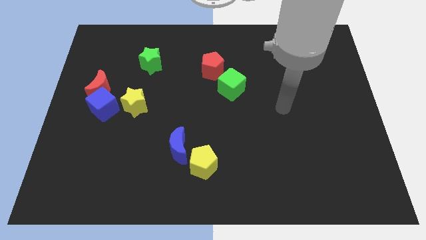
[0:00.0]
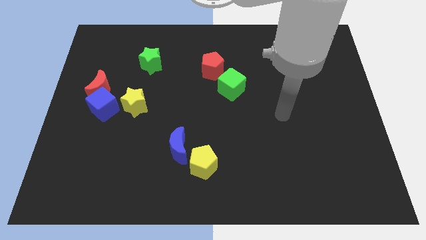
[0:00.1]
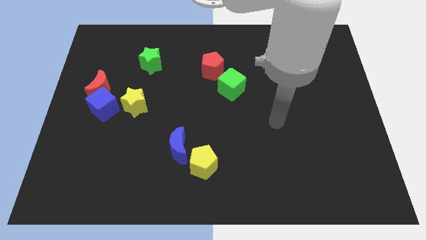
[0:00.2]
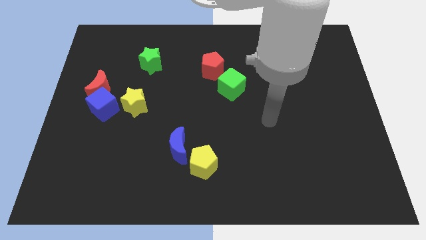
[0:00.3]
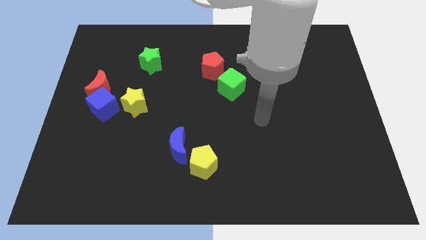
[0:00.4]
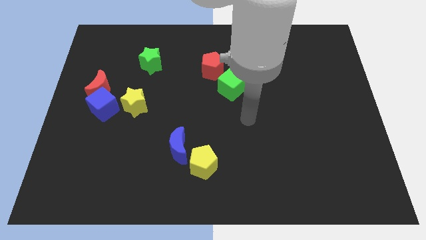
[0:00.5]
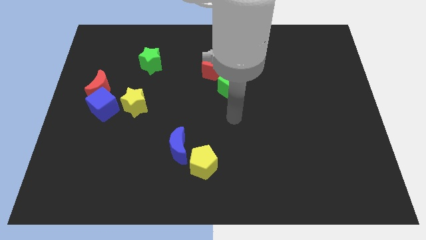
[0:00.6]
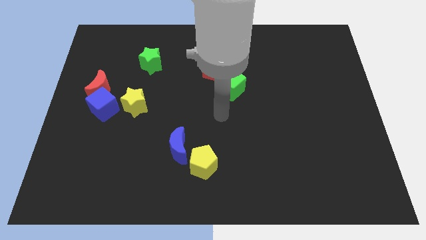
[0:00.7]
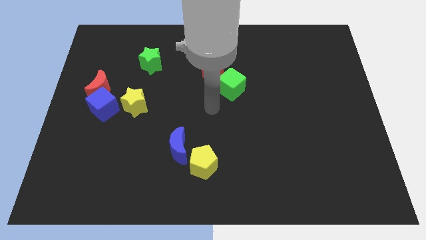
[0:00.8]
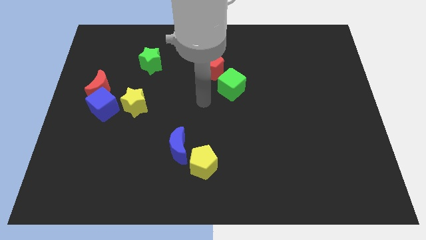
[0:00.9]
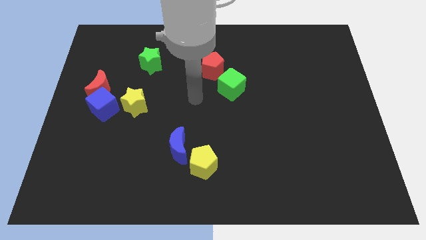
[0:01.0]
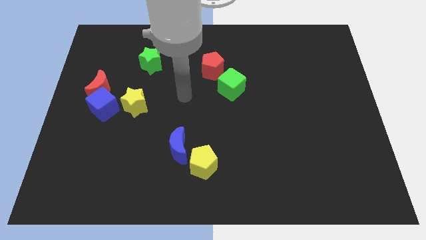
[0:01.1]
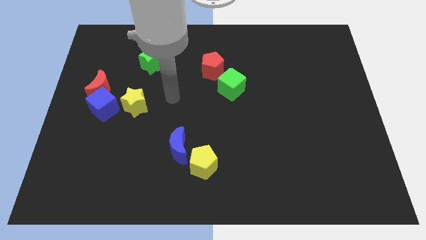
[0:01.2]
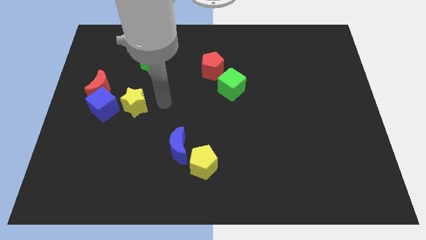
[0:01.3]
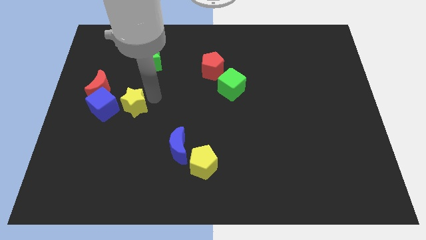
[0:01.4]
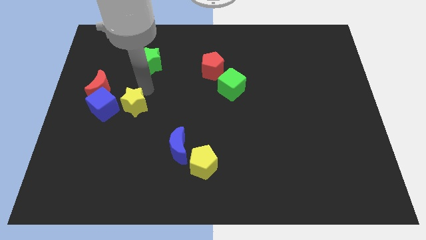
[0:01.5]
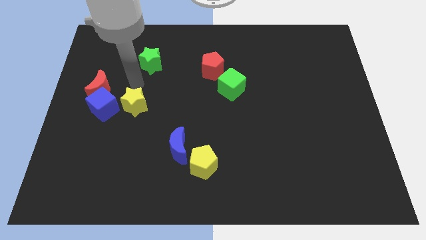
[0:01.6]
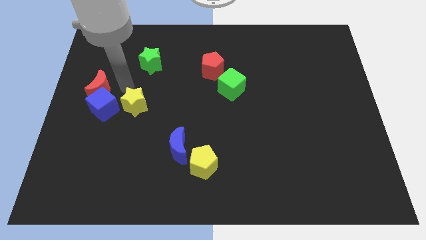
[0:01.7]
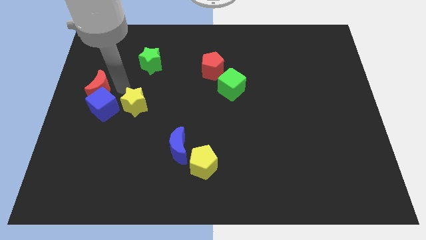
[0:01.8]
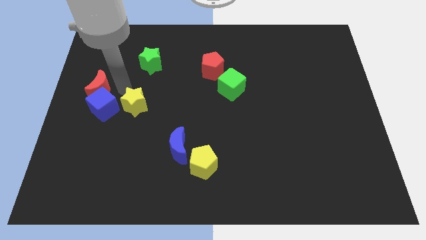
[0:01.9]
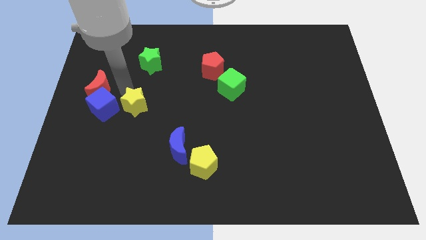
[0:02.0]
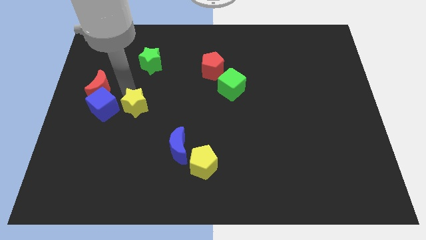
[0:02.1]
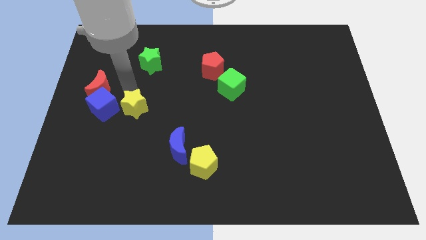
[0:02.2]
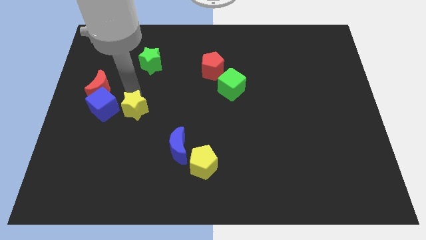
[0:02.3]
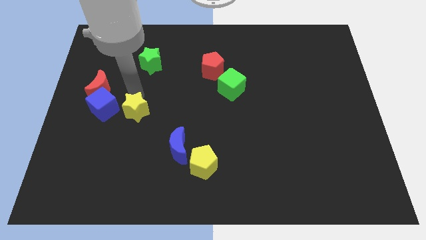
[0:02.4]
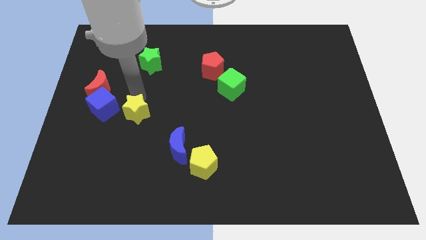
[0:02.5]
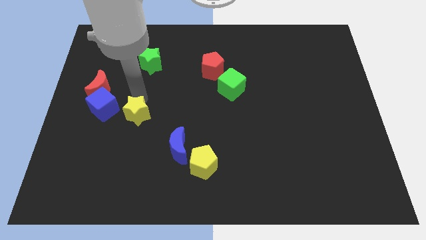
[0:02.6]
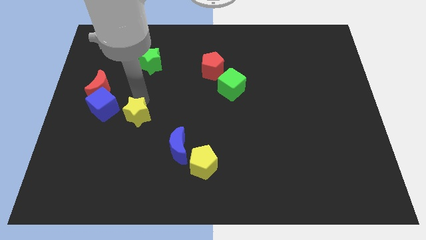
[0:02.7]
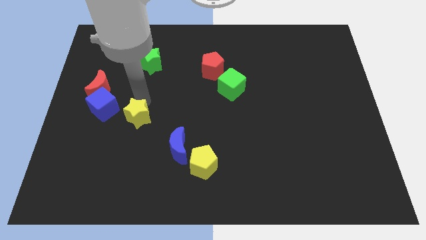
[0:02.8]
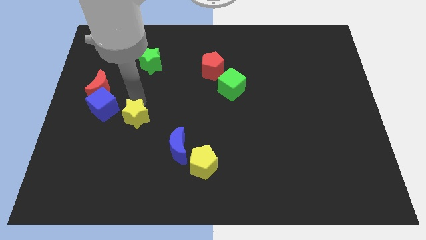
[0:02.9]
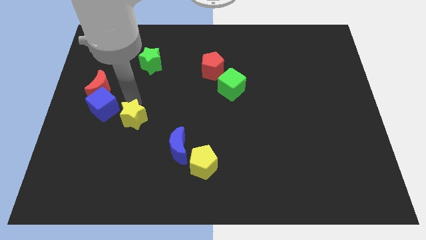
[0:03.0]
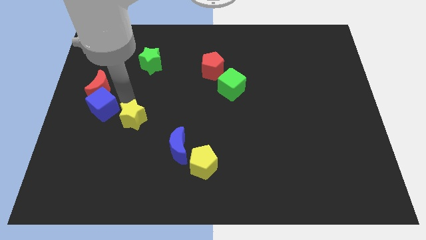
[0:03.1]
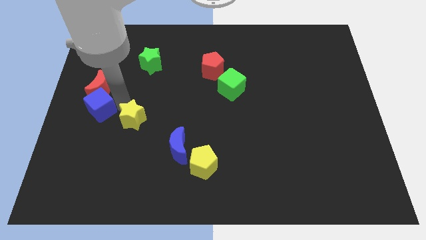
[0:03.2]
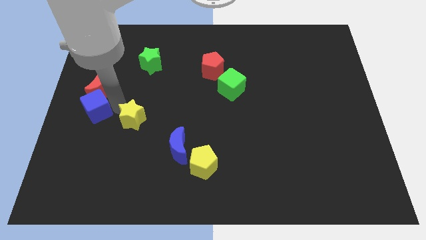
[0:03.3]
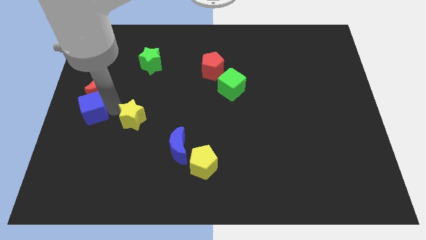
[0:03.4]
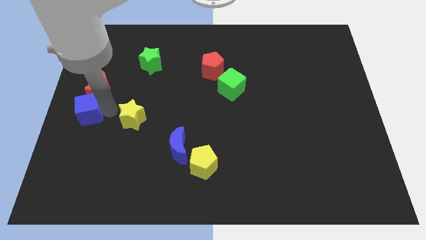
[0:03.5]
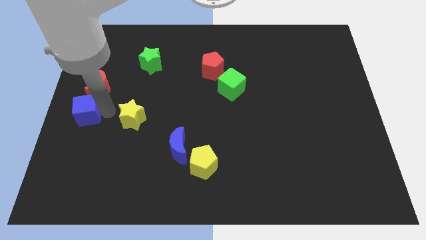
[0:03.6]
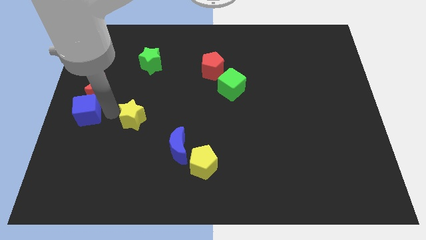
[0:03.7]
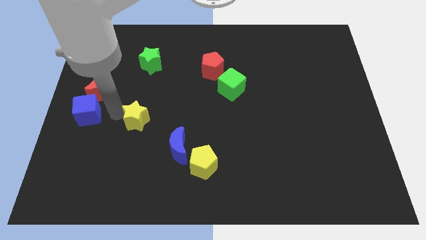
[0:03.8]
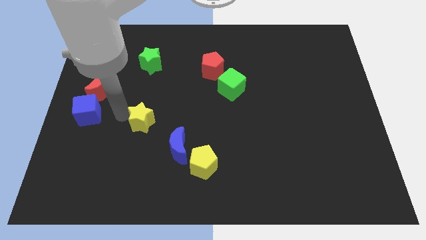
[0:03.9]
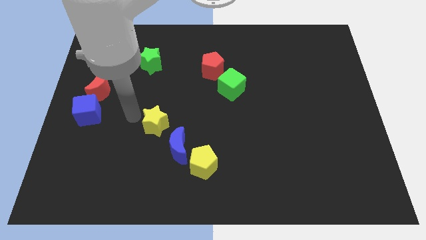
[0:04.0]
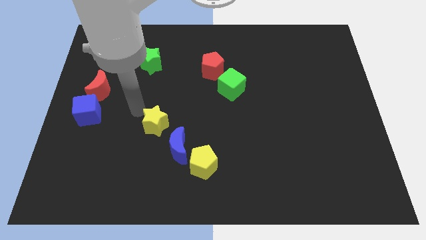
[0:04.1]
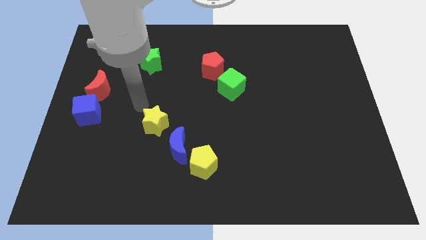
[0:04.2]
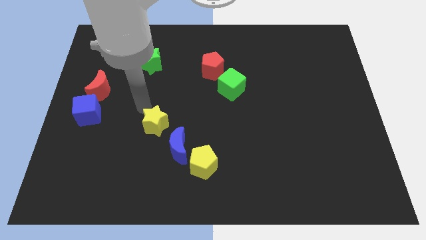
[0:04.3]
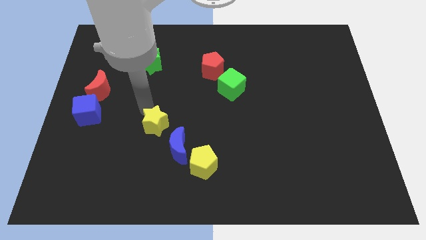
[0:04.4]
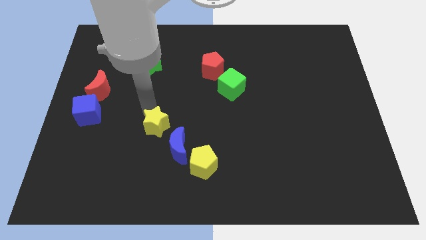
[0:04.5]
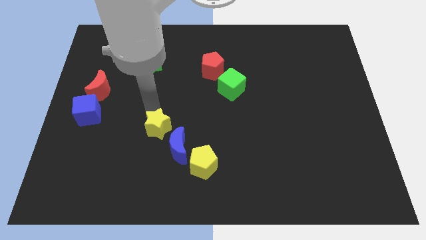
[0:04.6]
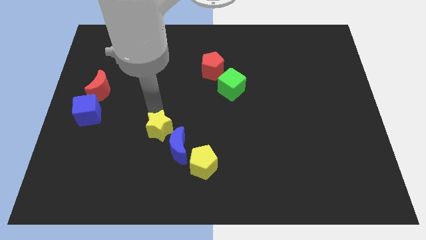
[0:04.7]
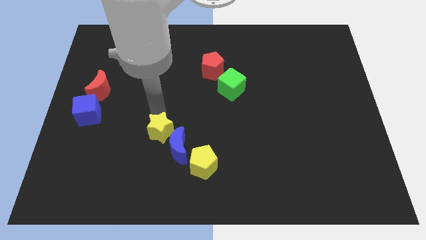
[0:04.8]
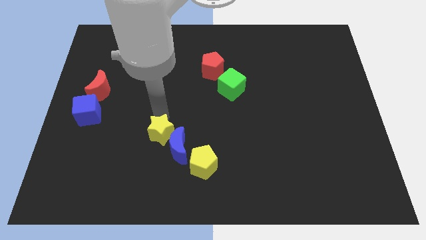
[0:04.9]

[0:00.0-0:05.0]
put the yellow star towards the blue moon

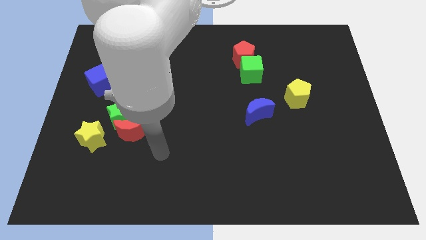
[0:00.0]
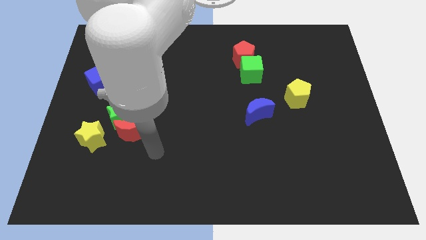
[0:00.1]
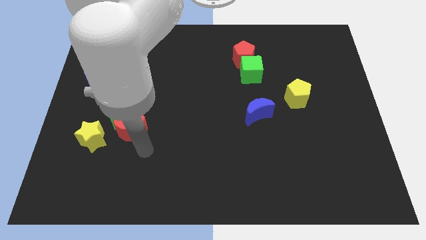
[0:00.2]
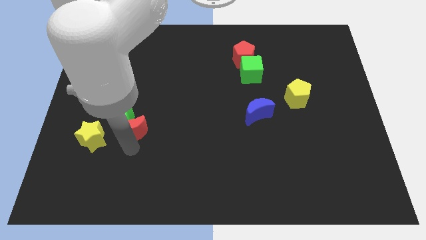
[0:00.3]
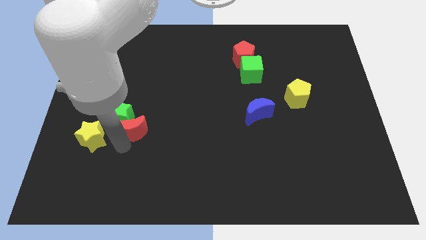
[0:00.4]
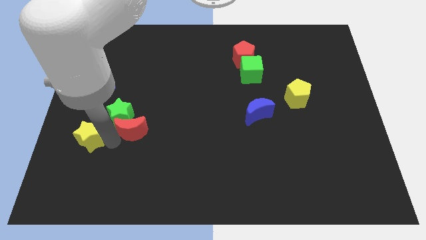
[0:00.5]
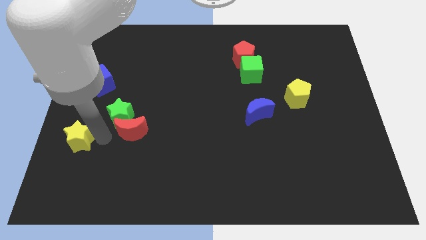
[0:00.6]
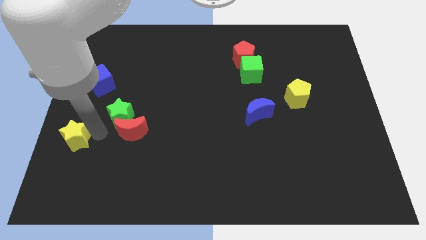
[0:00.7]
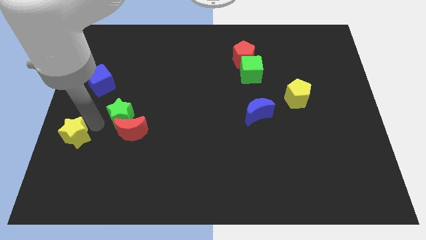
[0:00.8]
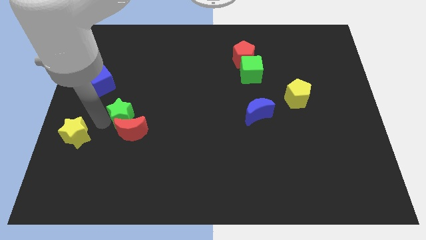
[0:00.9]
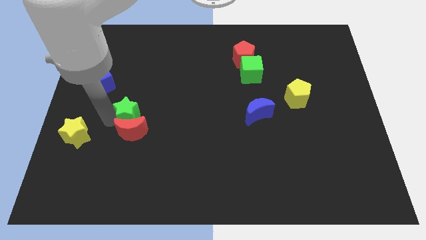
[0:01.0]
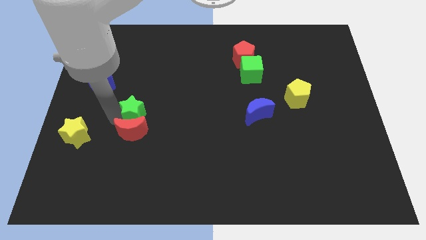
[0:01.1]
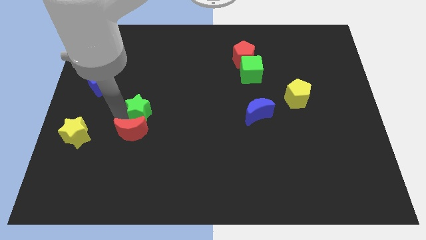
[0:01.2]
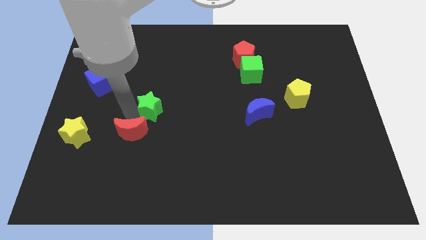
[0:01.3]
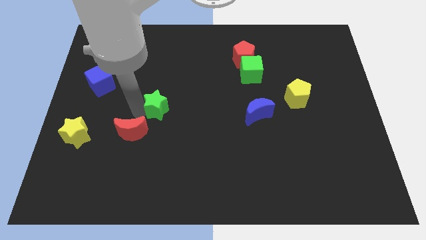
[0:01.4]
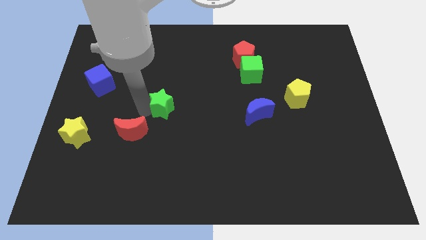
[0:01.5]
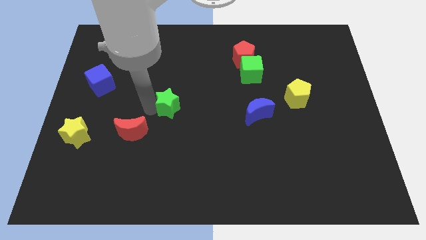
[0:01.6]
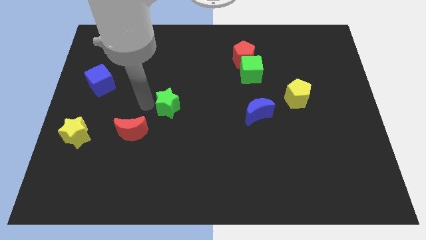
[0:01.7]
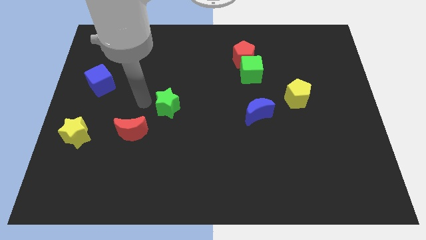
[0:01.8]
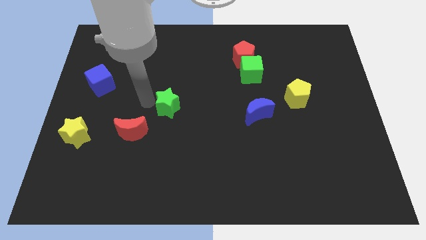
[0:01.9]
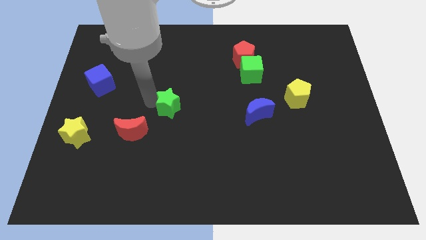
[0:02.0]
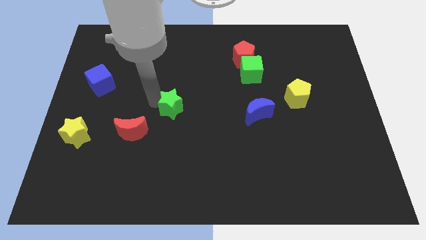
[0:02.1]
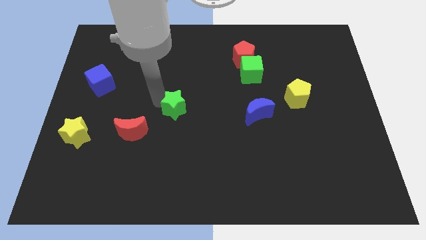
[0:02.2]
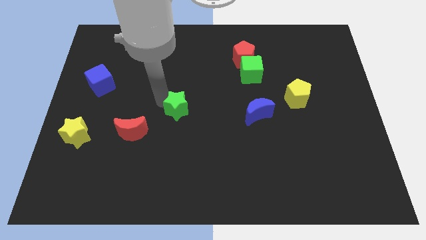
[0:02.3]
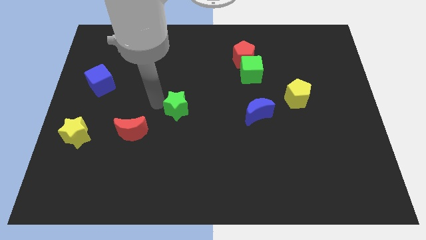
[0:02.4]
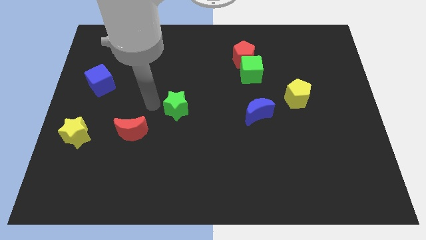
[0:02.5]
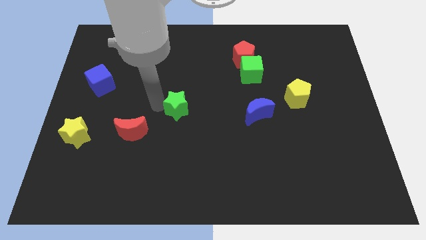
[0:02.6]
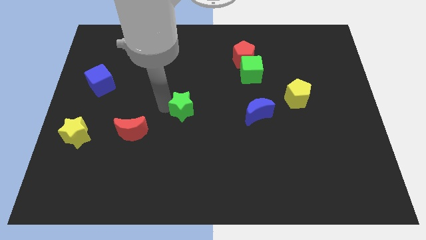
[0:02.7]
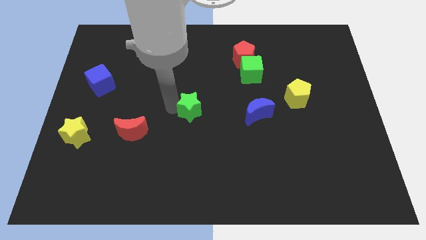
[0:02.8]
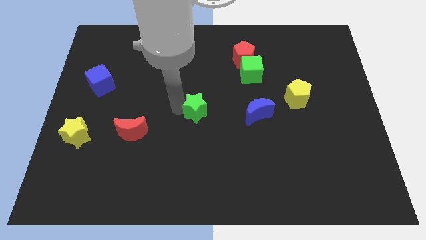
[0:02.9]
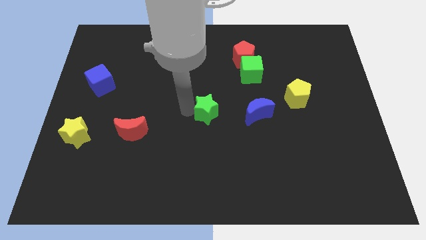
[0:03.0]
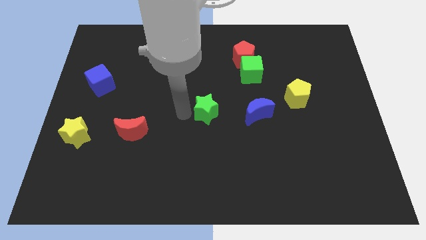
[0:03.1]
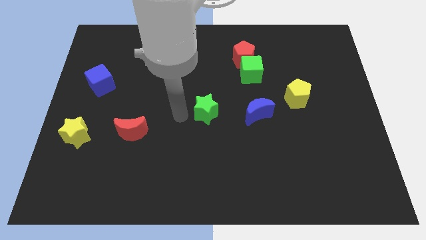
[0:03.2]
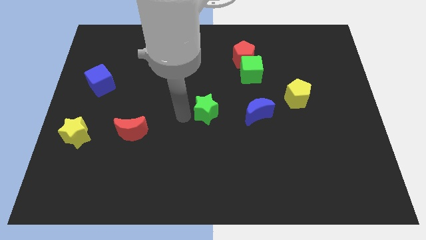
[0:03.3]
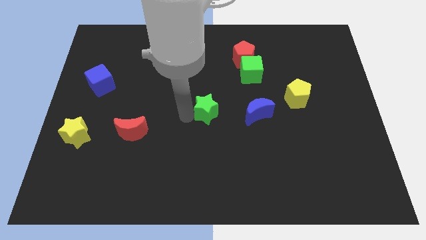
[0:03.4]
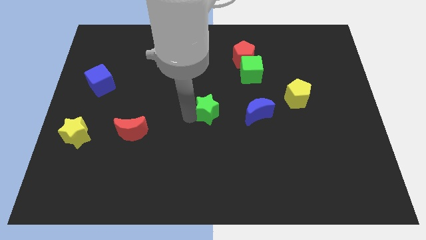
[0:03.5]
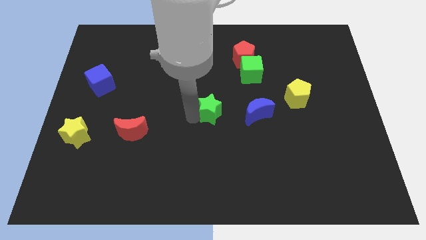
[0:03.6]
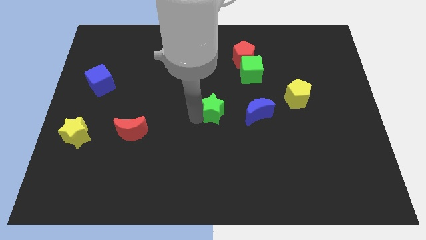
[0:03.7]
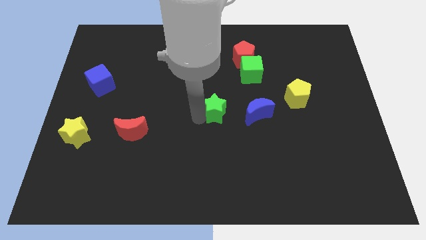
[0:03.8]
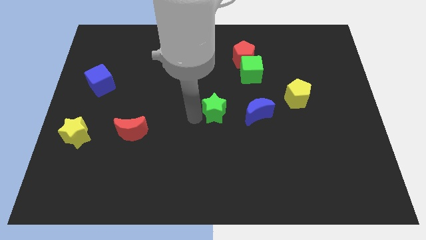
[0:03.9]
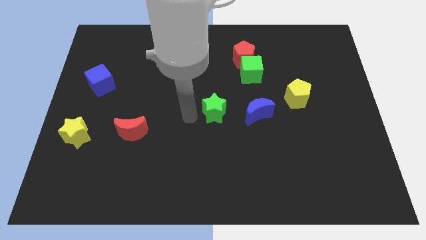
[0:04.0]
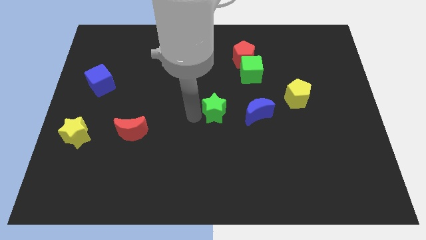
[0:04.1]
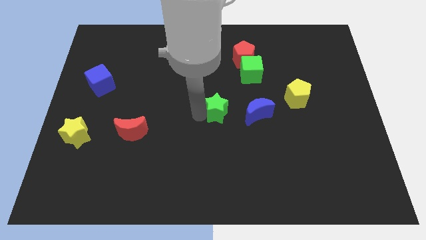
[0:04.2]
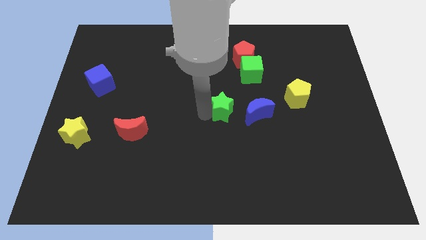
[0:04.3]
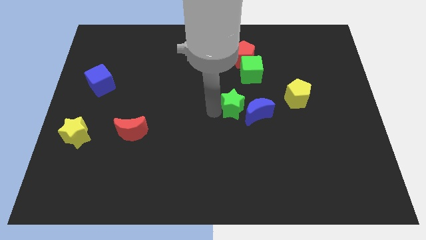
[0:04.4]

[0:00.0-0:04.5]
slide the green star towards the blue moon
